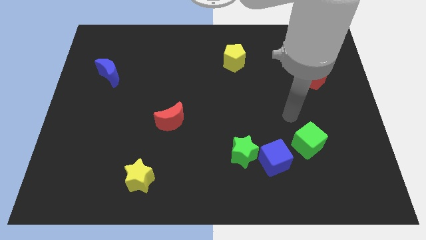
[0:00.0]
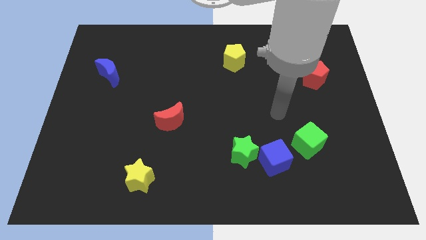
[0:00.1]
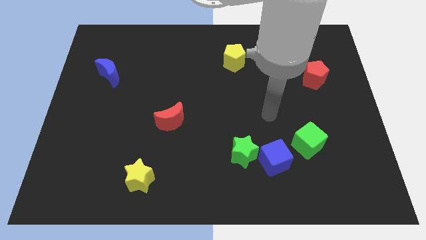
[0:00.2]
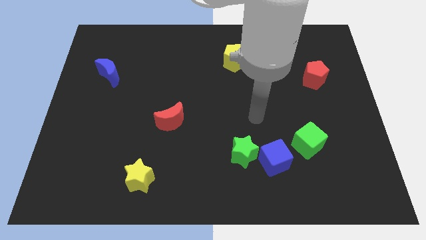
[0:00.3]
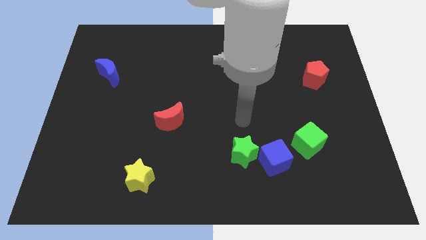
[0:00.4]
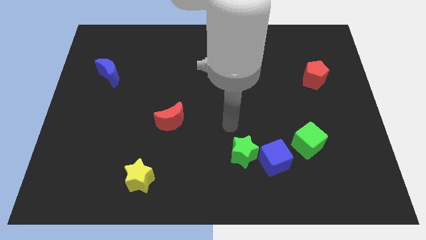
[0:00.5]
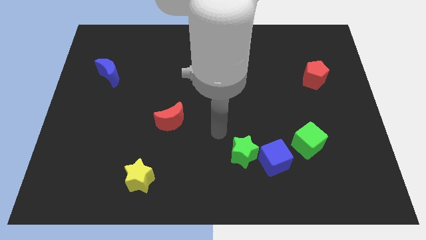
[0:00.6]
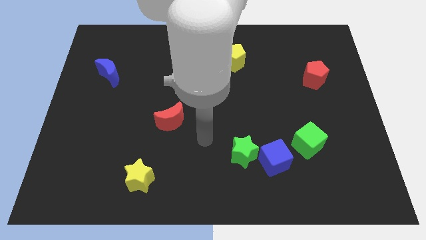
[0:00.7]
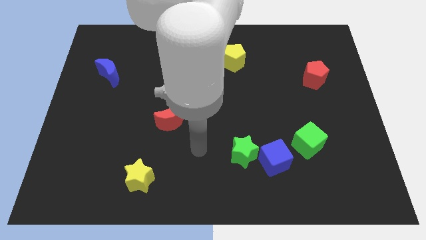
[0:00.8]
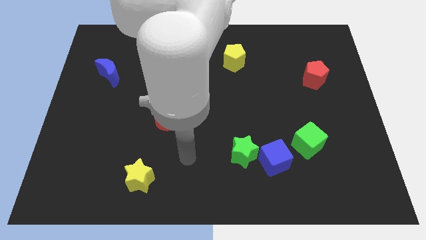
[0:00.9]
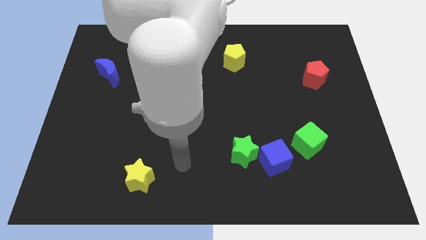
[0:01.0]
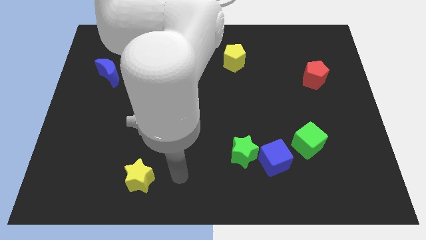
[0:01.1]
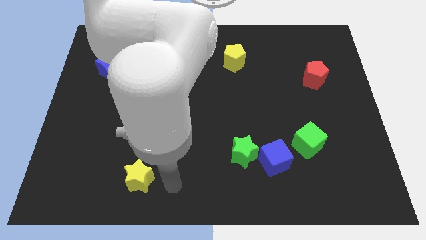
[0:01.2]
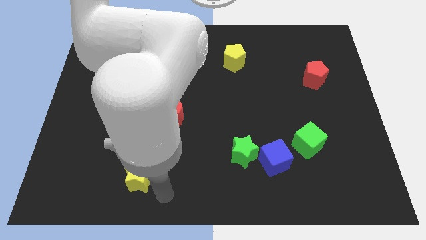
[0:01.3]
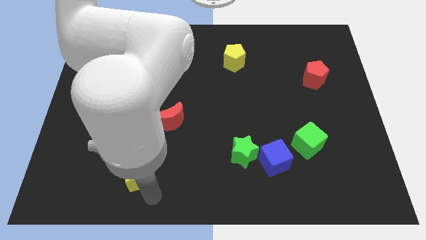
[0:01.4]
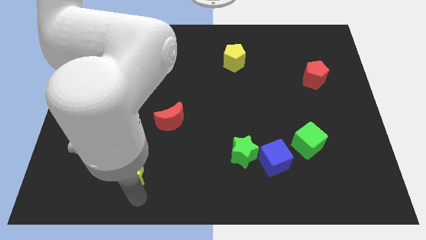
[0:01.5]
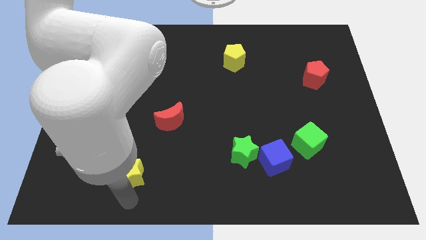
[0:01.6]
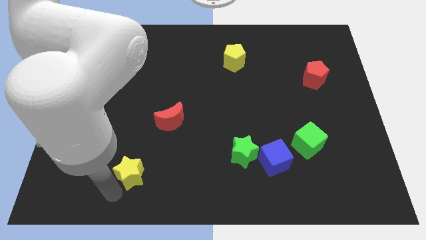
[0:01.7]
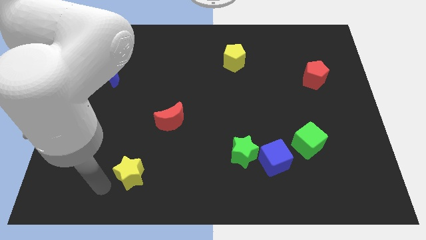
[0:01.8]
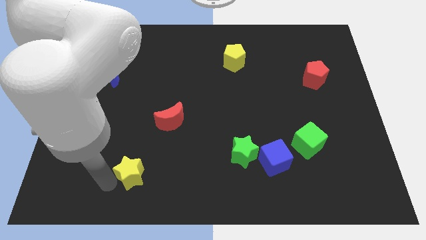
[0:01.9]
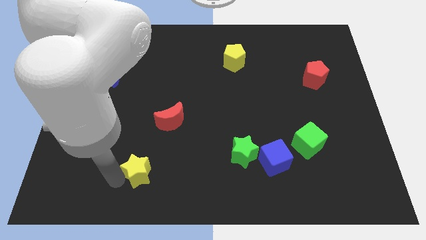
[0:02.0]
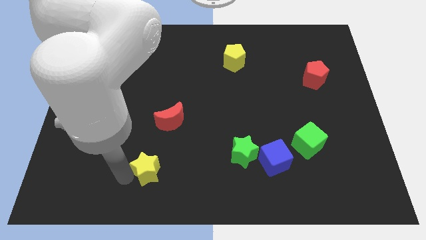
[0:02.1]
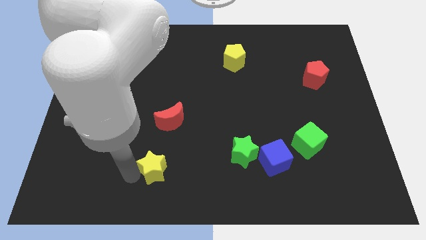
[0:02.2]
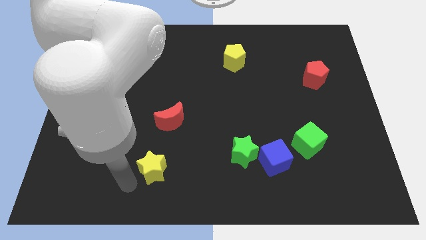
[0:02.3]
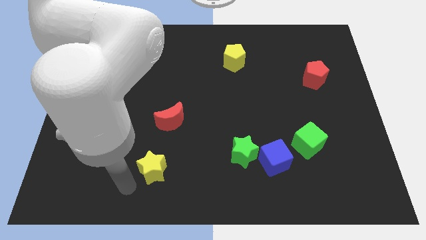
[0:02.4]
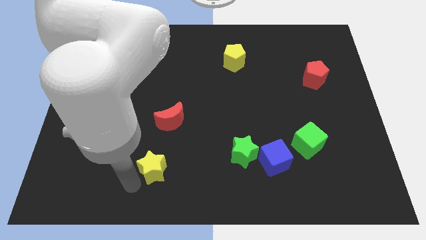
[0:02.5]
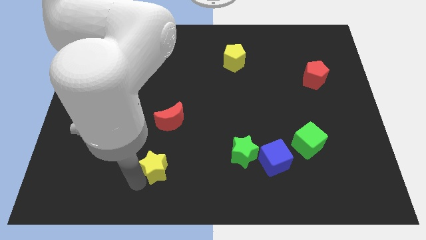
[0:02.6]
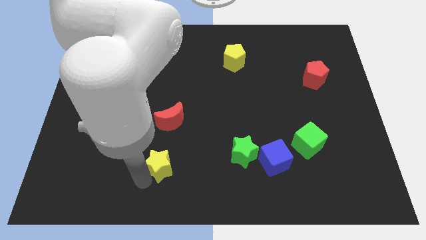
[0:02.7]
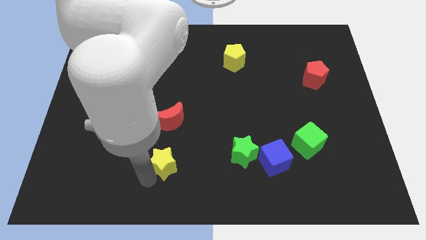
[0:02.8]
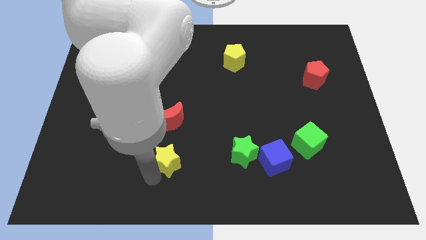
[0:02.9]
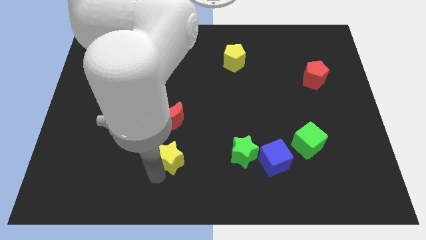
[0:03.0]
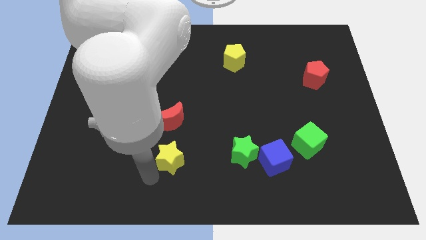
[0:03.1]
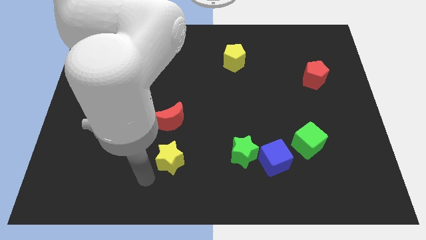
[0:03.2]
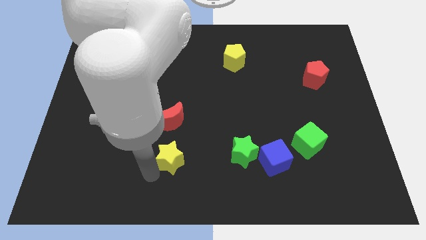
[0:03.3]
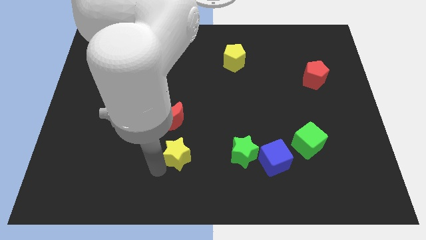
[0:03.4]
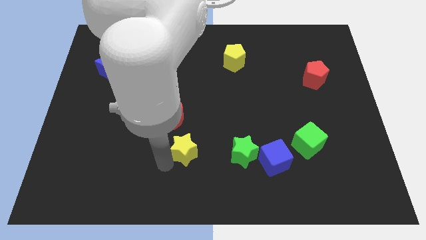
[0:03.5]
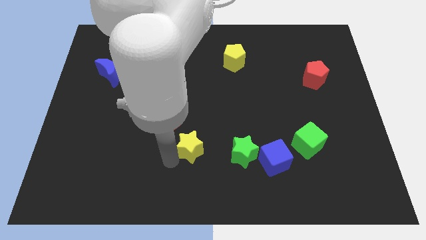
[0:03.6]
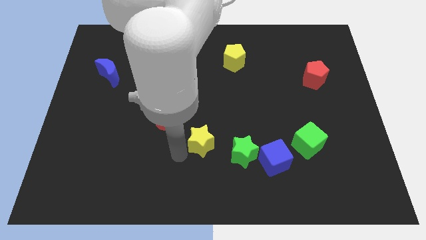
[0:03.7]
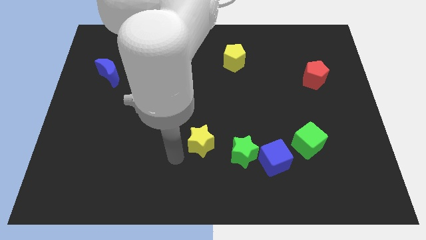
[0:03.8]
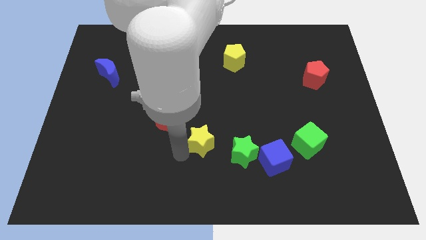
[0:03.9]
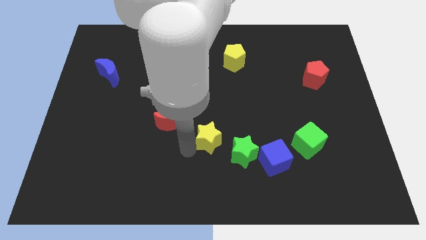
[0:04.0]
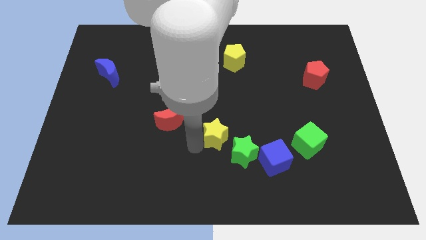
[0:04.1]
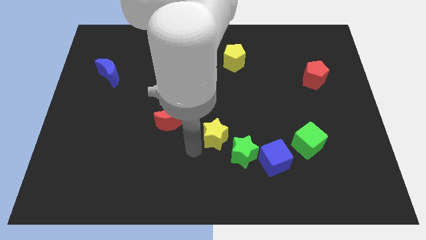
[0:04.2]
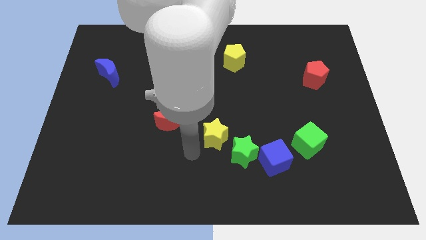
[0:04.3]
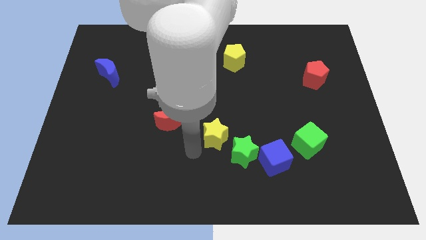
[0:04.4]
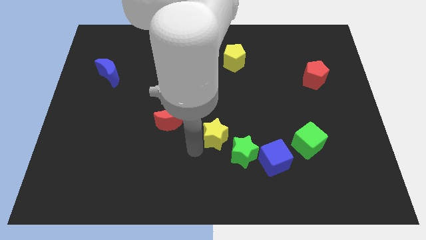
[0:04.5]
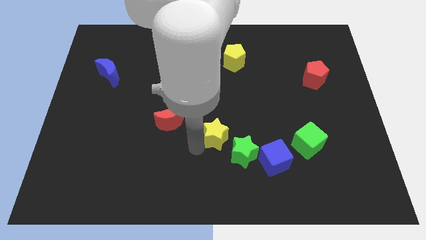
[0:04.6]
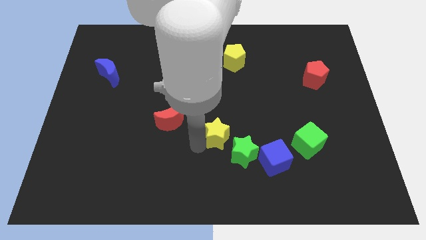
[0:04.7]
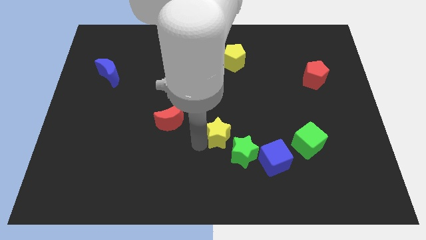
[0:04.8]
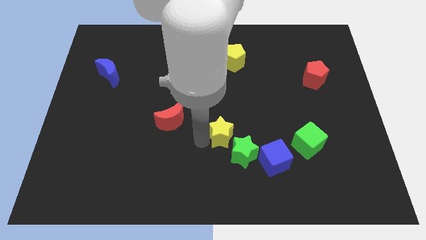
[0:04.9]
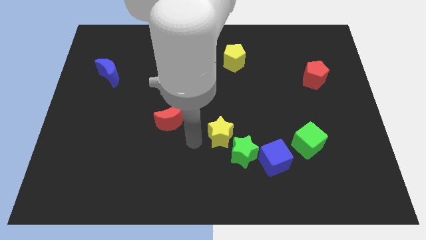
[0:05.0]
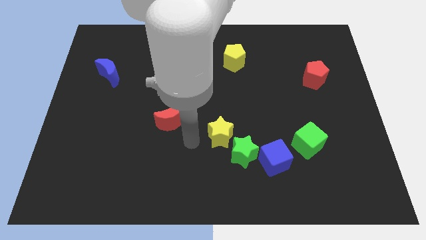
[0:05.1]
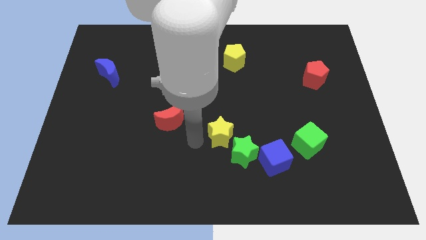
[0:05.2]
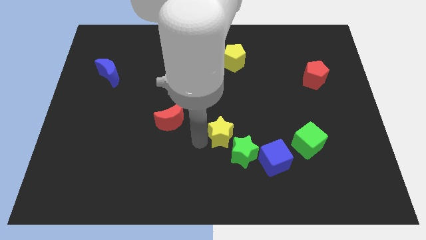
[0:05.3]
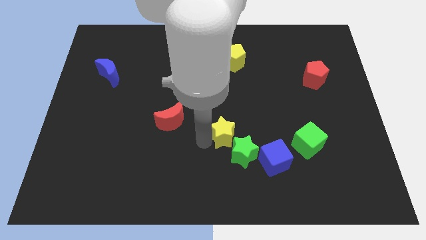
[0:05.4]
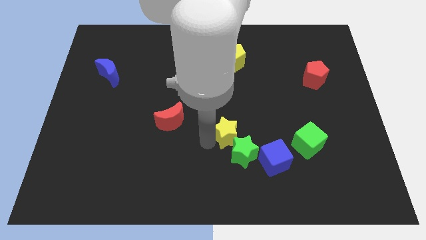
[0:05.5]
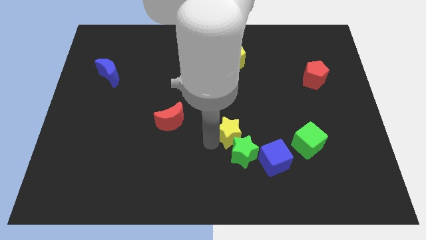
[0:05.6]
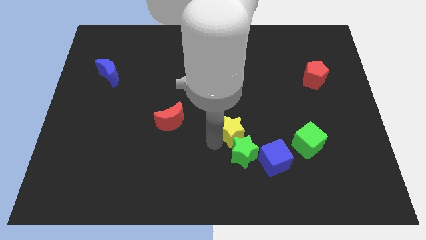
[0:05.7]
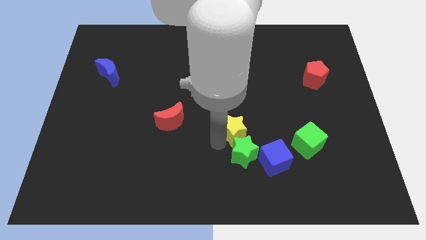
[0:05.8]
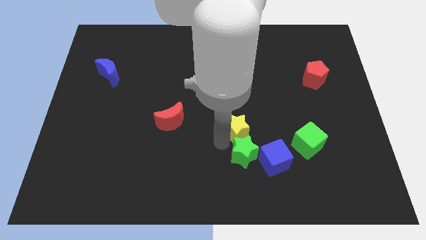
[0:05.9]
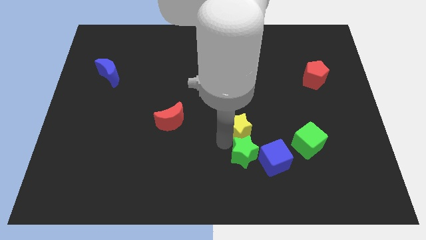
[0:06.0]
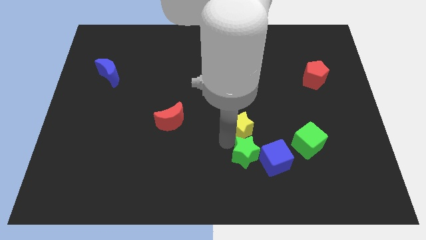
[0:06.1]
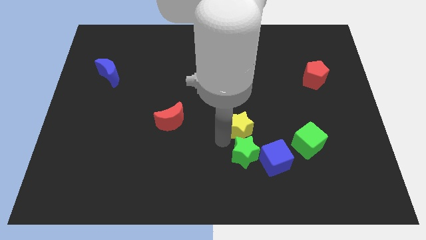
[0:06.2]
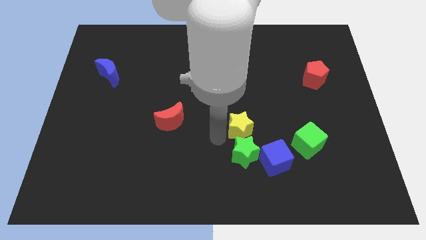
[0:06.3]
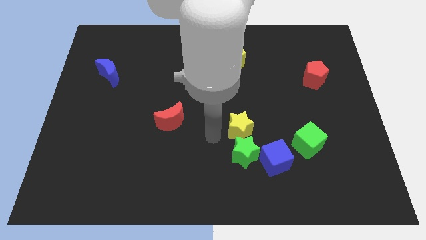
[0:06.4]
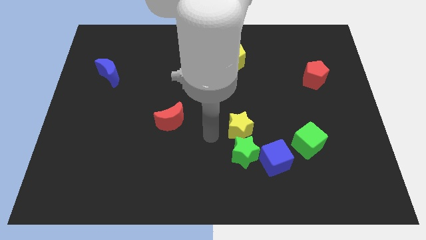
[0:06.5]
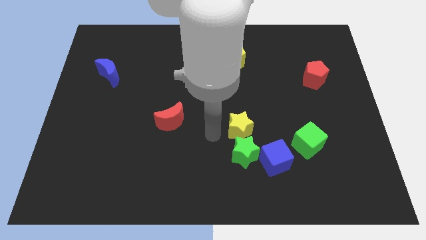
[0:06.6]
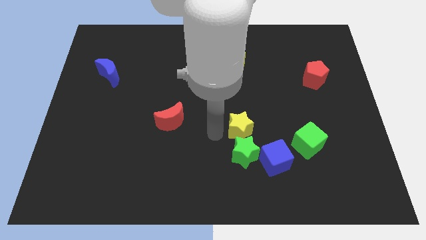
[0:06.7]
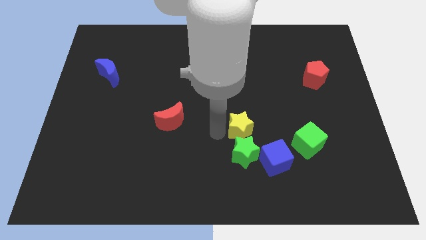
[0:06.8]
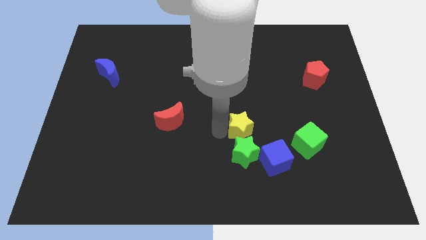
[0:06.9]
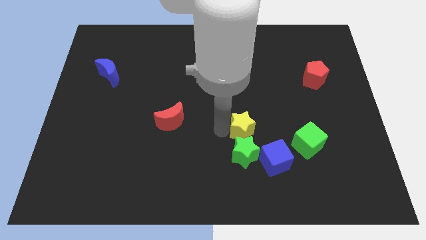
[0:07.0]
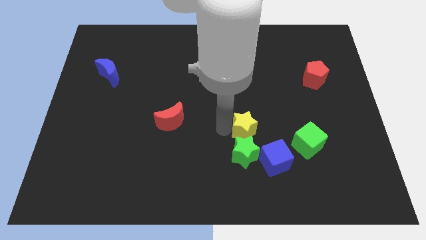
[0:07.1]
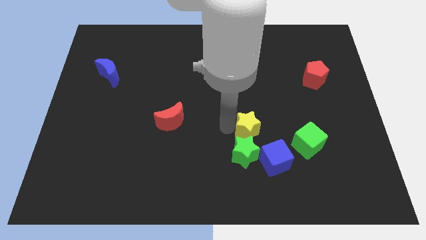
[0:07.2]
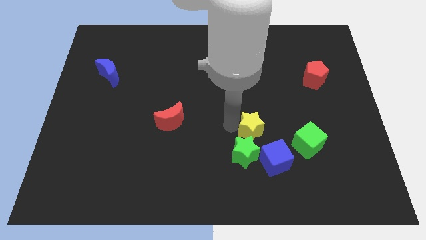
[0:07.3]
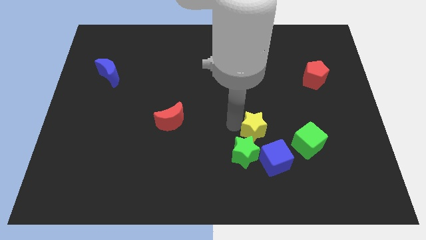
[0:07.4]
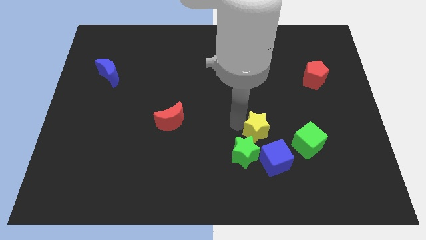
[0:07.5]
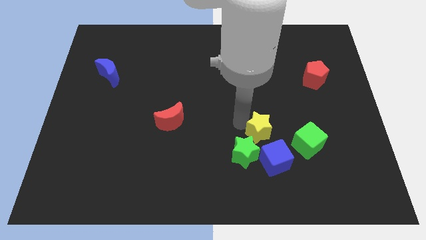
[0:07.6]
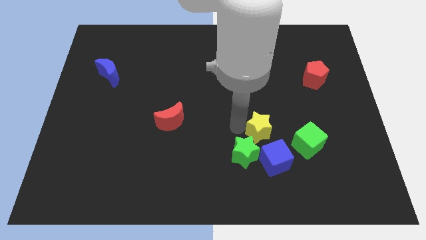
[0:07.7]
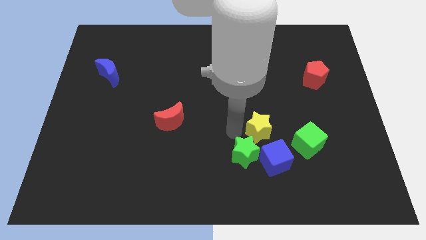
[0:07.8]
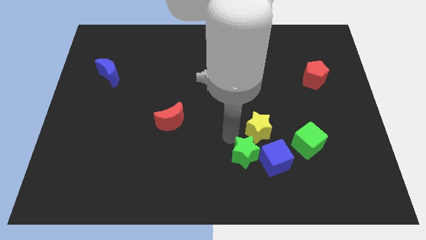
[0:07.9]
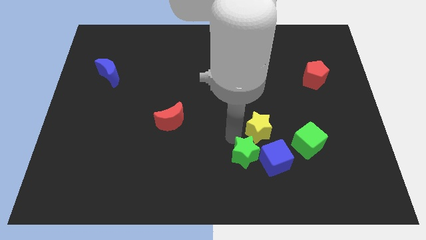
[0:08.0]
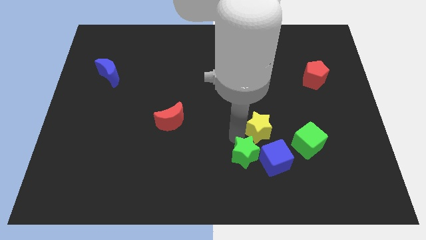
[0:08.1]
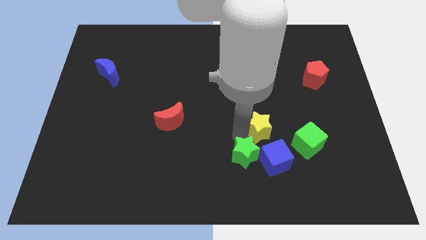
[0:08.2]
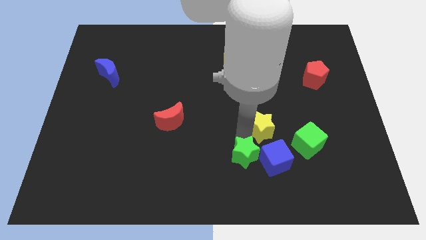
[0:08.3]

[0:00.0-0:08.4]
slide the yellow star diagonally up and to the left of the green cube
